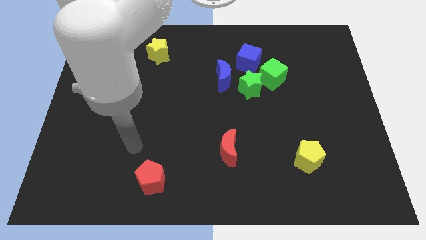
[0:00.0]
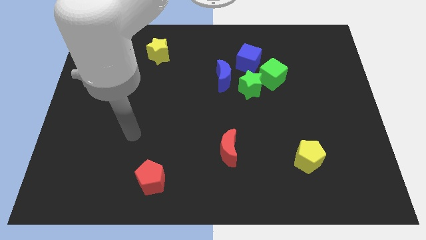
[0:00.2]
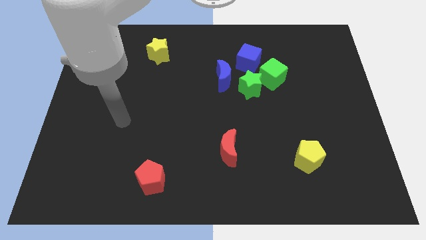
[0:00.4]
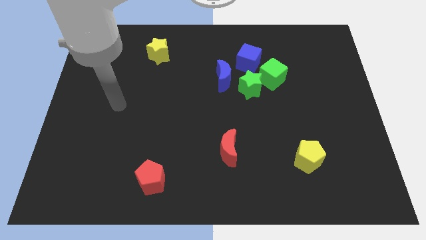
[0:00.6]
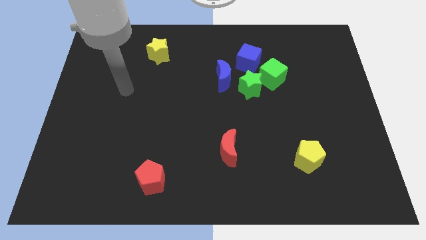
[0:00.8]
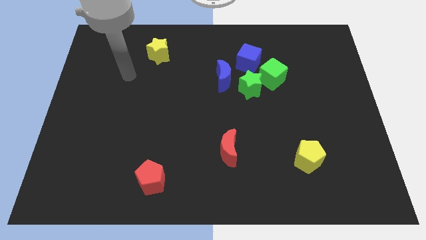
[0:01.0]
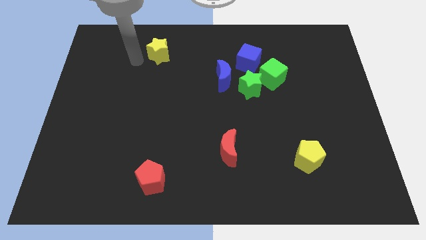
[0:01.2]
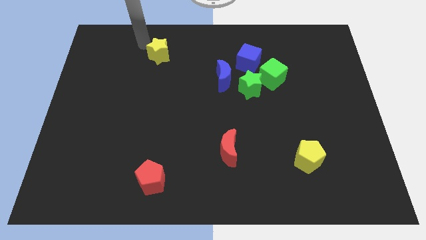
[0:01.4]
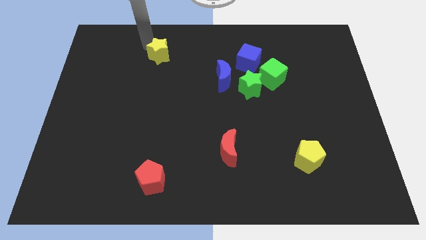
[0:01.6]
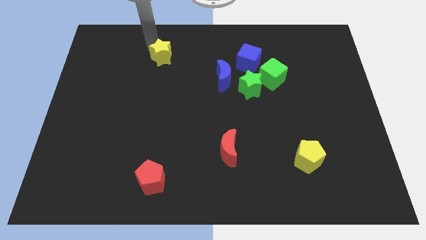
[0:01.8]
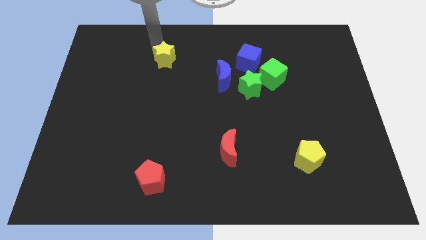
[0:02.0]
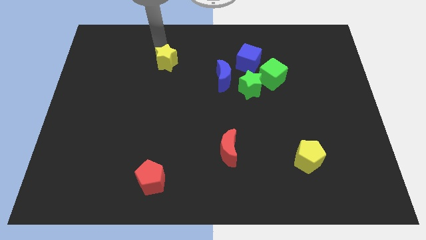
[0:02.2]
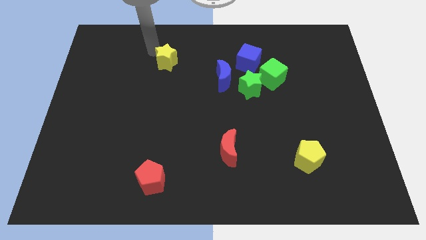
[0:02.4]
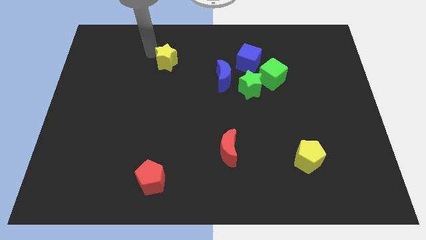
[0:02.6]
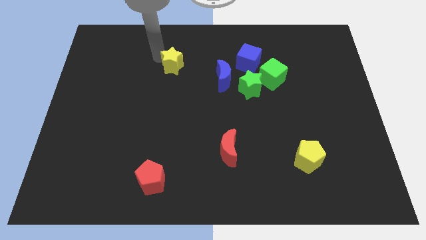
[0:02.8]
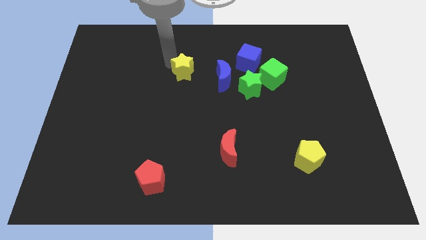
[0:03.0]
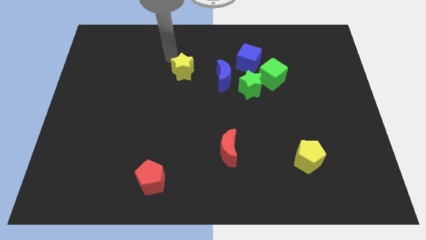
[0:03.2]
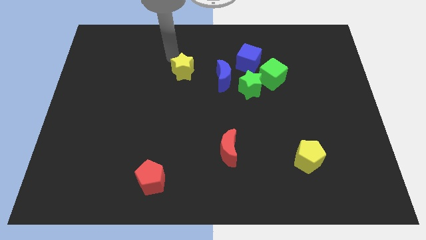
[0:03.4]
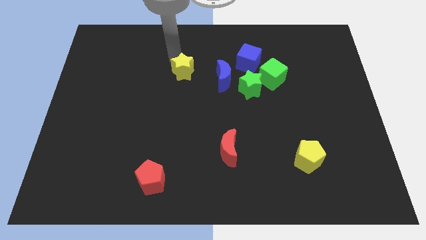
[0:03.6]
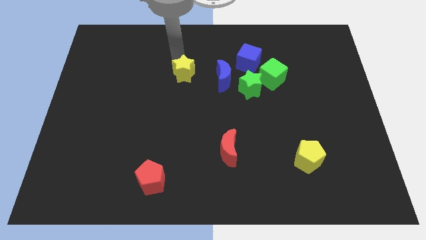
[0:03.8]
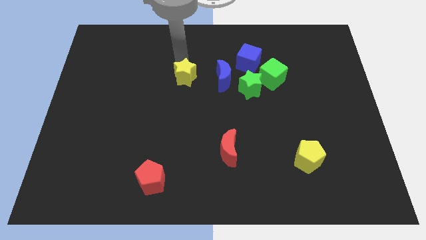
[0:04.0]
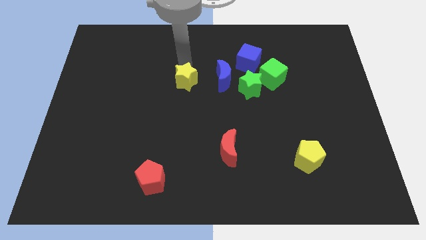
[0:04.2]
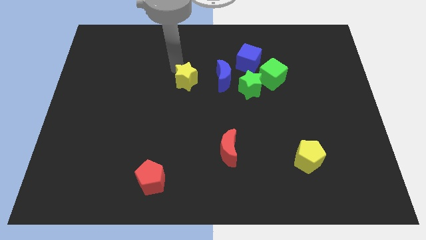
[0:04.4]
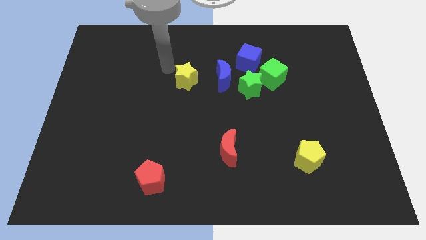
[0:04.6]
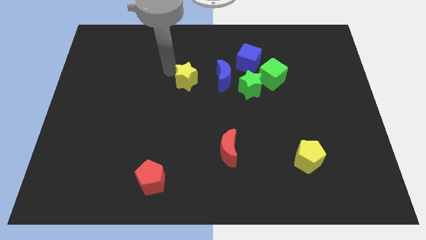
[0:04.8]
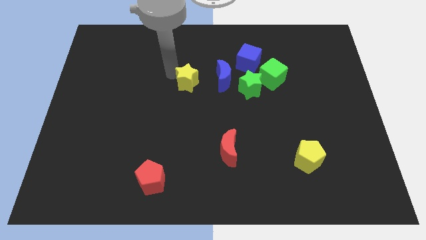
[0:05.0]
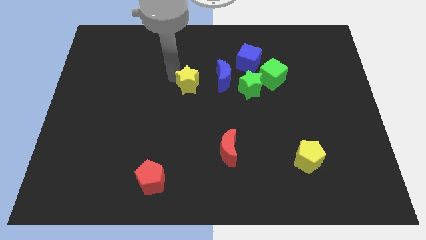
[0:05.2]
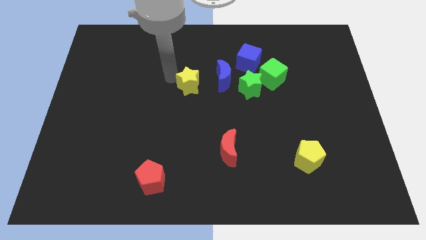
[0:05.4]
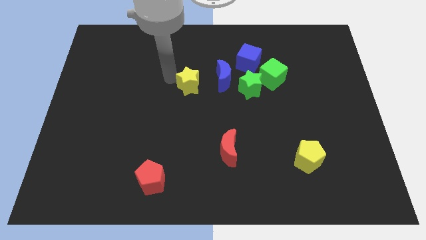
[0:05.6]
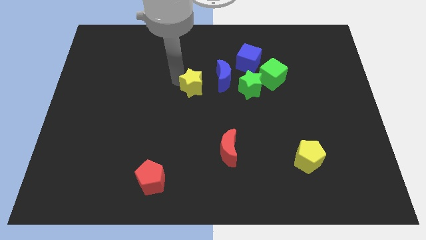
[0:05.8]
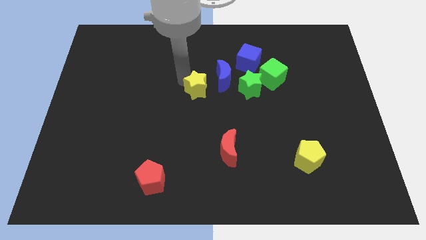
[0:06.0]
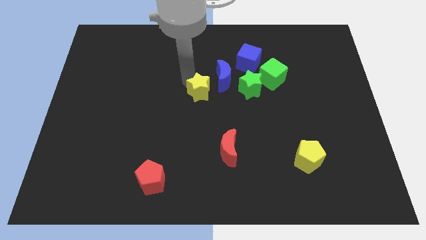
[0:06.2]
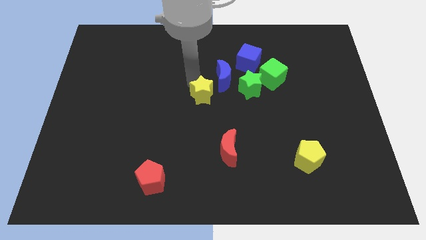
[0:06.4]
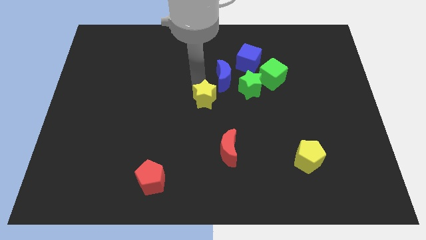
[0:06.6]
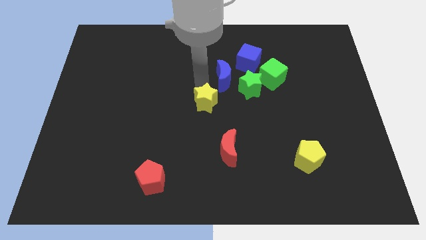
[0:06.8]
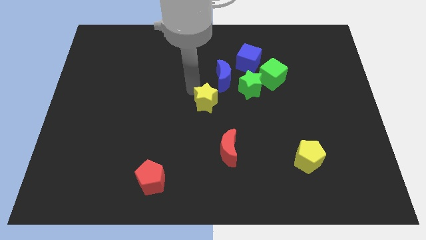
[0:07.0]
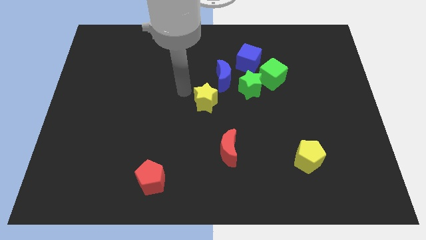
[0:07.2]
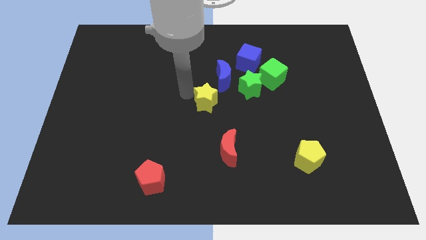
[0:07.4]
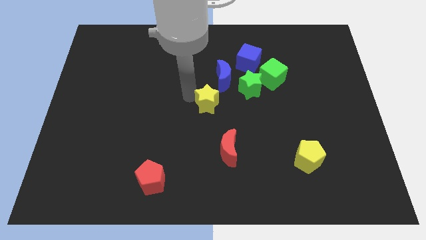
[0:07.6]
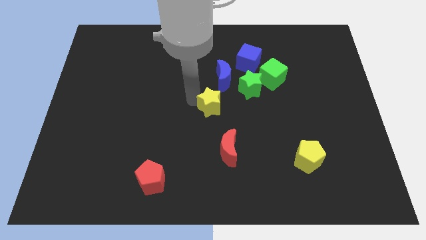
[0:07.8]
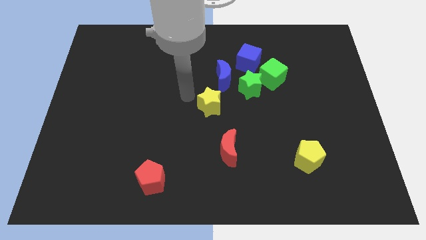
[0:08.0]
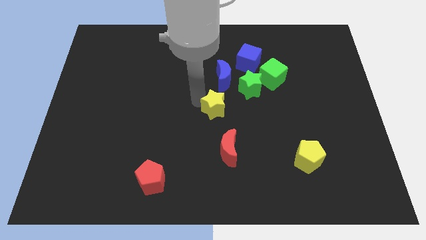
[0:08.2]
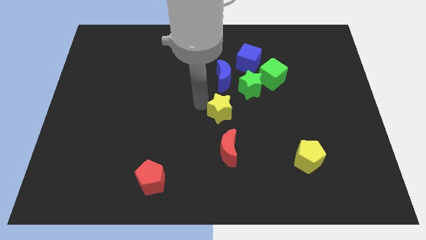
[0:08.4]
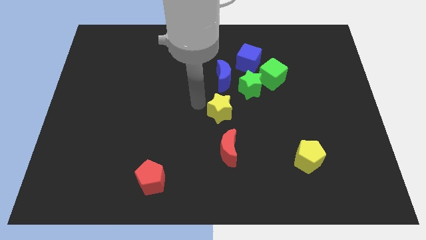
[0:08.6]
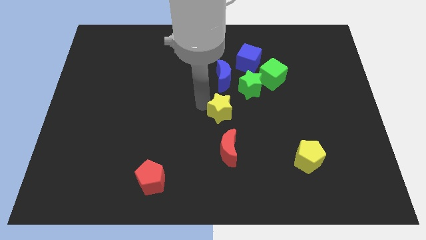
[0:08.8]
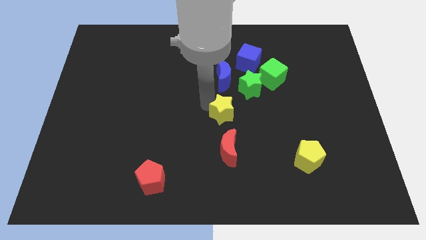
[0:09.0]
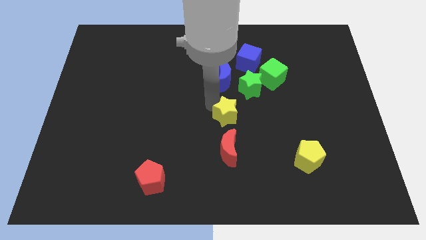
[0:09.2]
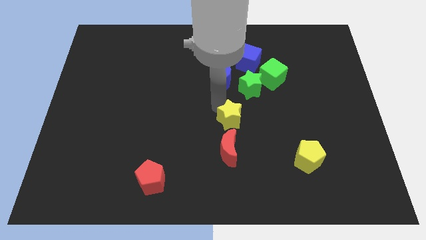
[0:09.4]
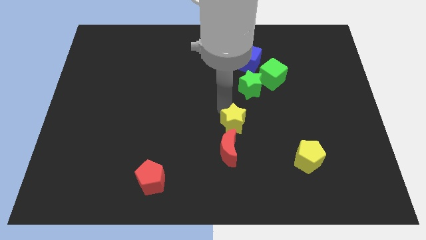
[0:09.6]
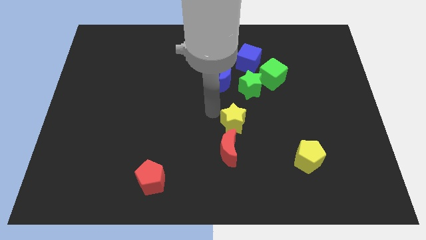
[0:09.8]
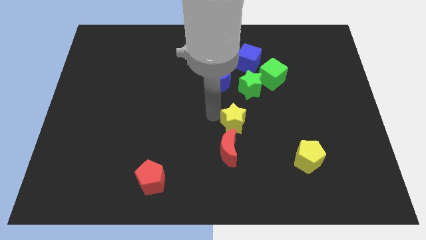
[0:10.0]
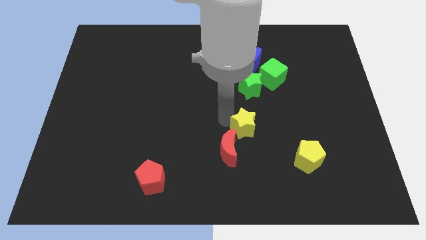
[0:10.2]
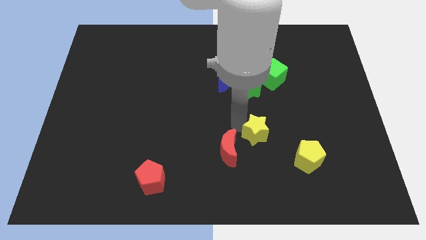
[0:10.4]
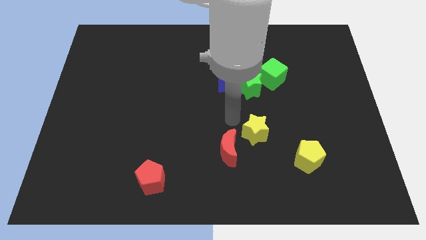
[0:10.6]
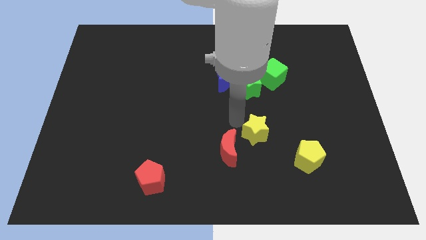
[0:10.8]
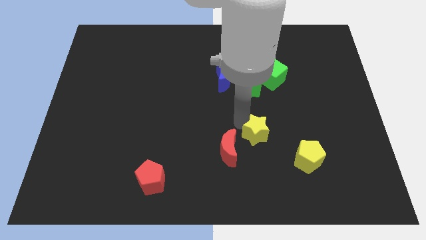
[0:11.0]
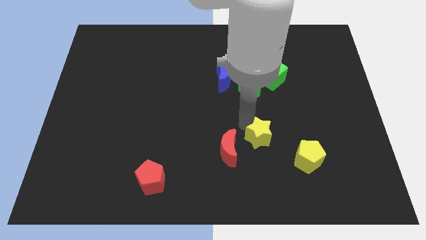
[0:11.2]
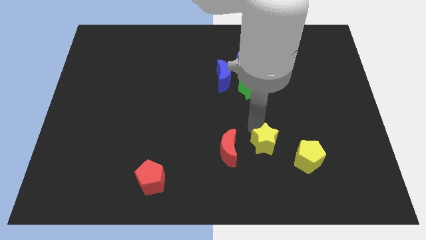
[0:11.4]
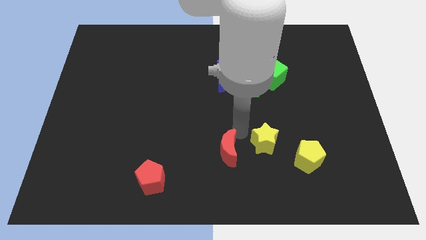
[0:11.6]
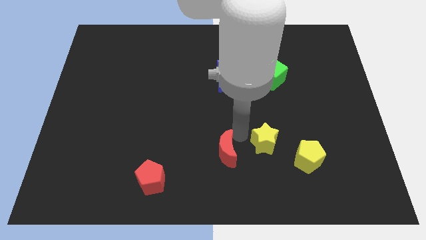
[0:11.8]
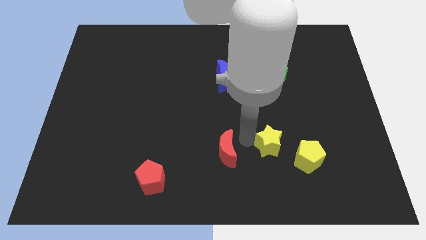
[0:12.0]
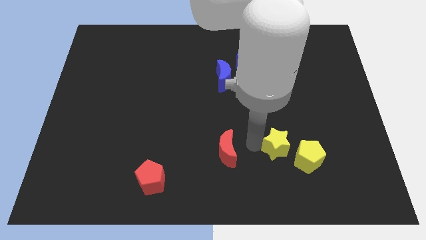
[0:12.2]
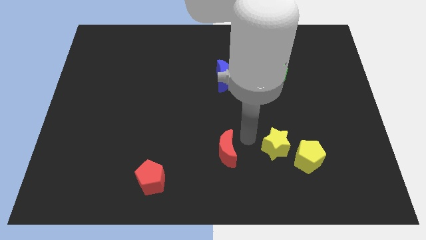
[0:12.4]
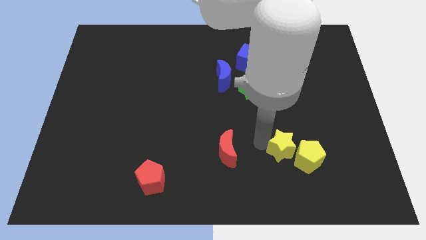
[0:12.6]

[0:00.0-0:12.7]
slide the yellow star to the yellow pentagon
